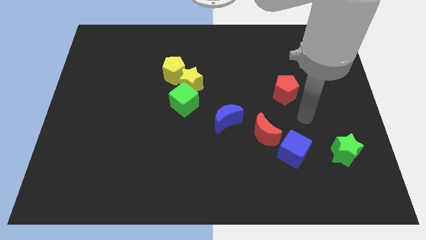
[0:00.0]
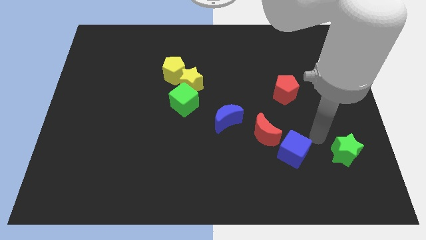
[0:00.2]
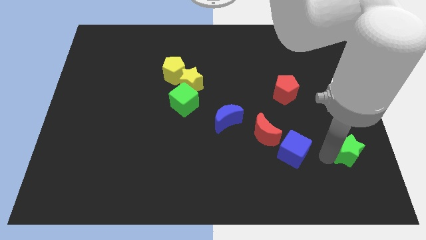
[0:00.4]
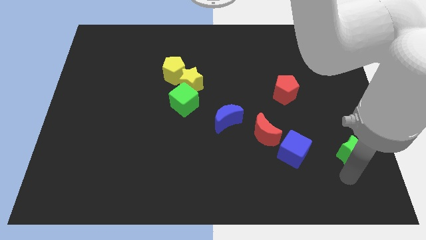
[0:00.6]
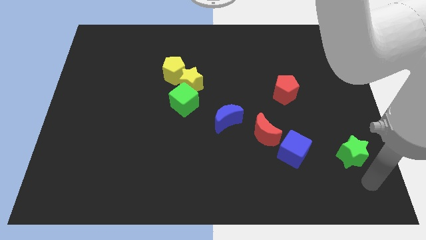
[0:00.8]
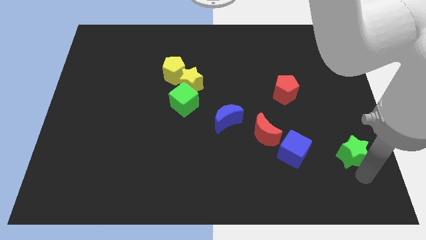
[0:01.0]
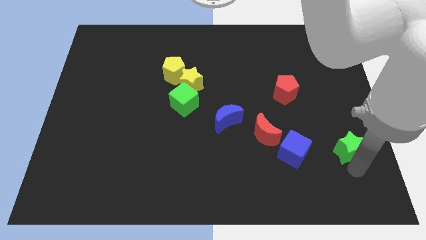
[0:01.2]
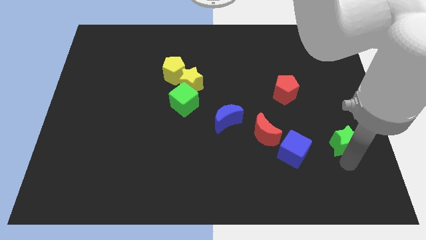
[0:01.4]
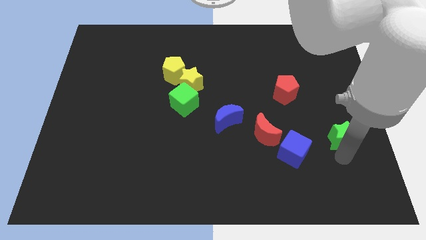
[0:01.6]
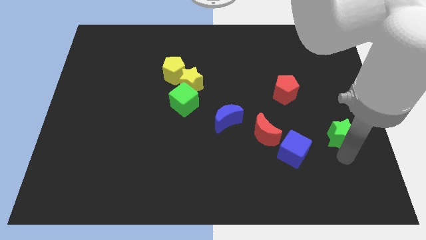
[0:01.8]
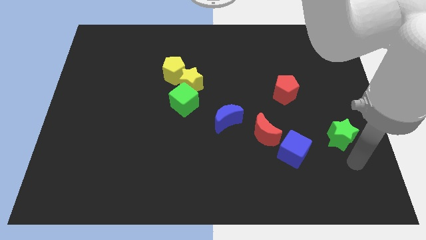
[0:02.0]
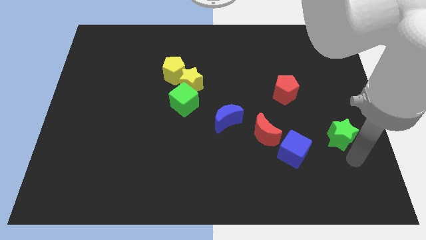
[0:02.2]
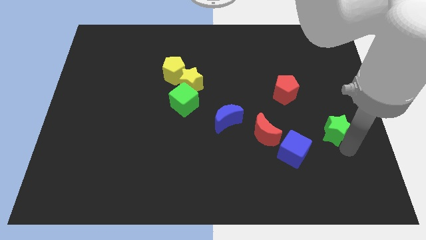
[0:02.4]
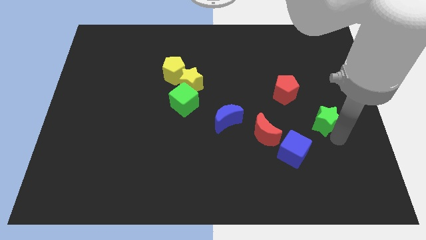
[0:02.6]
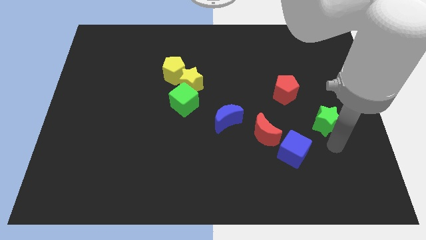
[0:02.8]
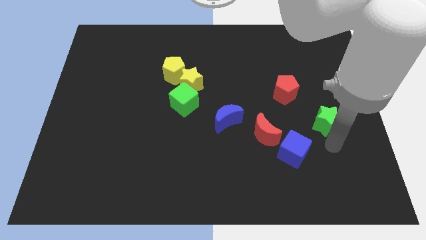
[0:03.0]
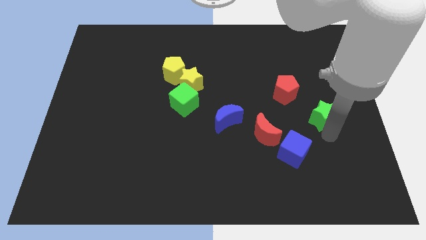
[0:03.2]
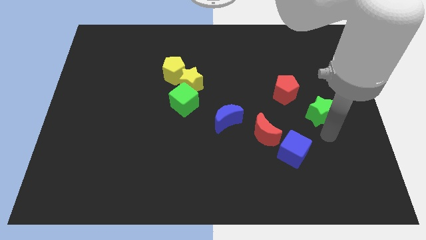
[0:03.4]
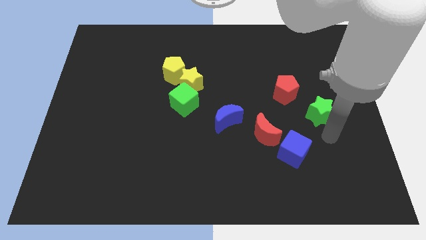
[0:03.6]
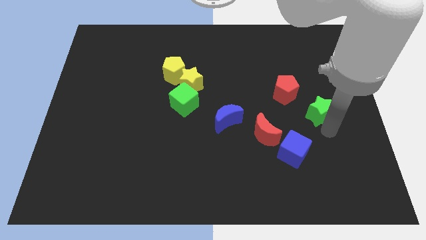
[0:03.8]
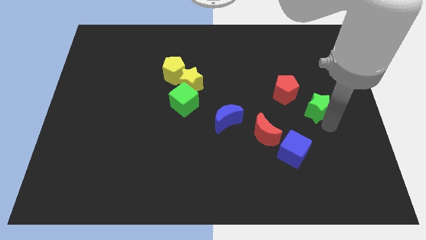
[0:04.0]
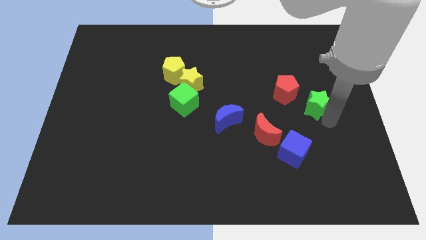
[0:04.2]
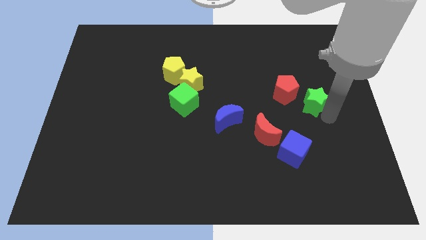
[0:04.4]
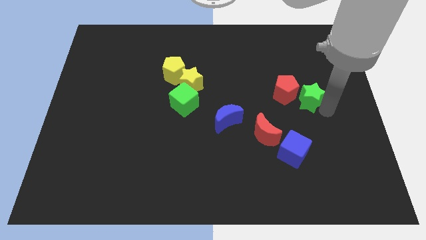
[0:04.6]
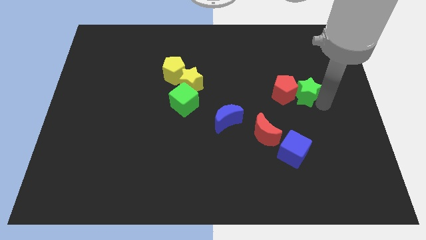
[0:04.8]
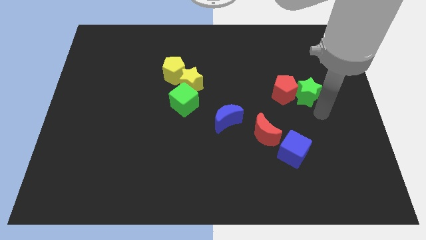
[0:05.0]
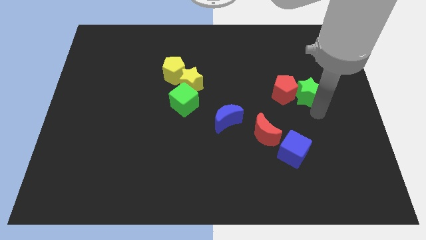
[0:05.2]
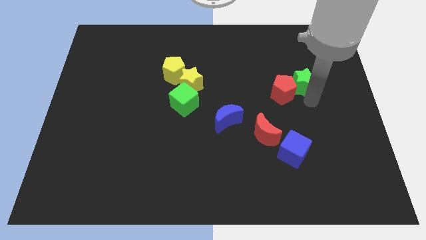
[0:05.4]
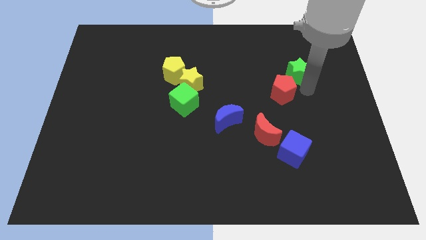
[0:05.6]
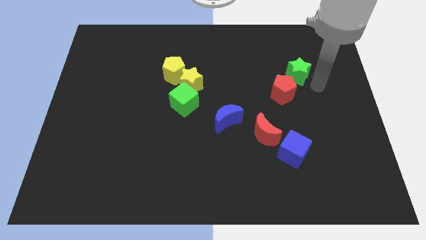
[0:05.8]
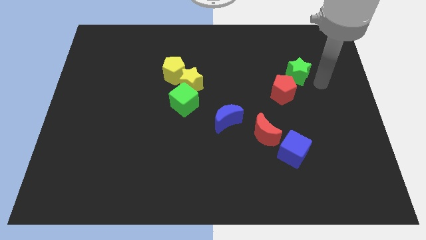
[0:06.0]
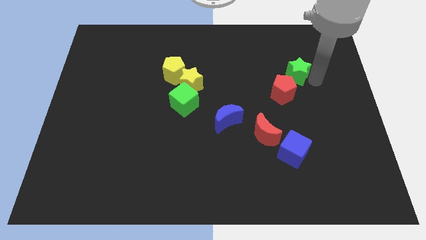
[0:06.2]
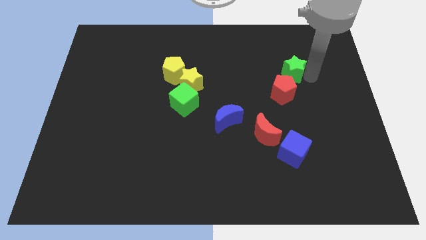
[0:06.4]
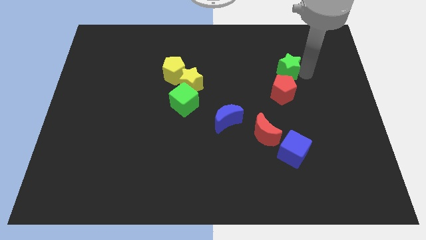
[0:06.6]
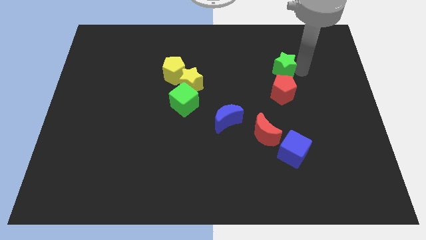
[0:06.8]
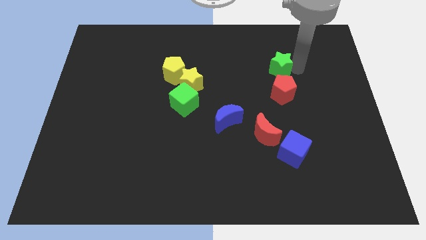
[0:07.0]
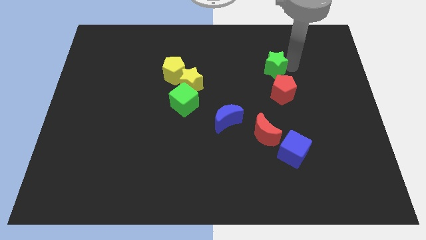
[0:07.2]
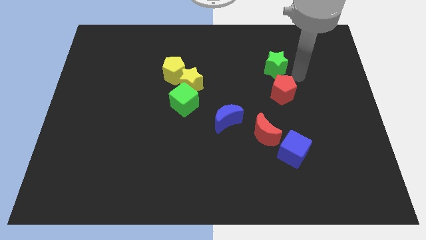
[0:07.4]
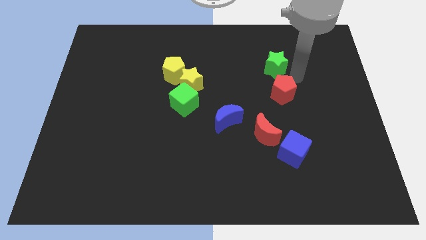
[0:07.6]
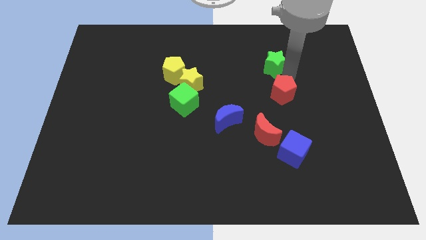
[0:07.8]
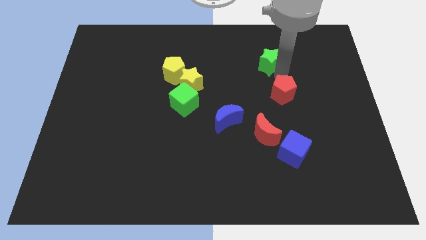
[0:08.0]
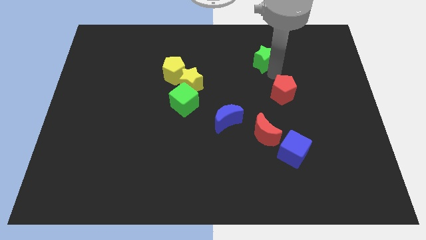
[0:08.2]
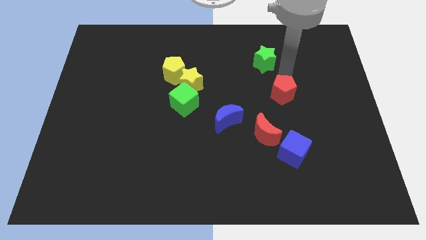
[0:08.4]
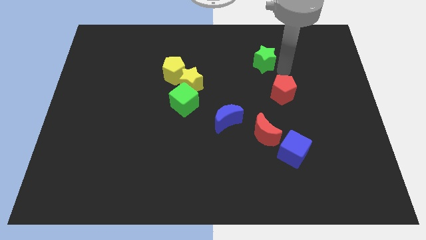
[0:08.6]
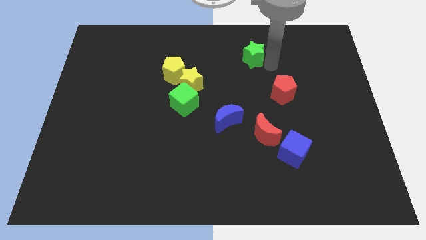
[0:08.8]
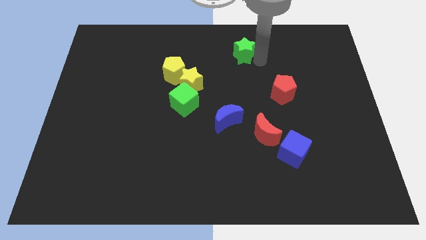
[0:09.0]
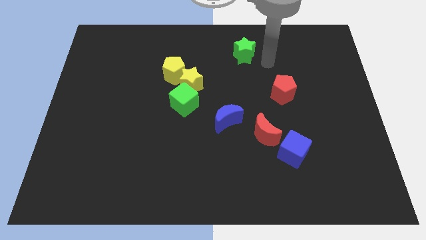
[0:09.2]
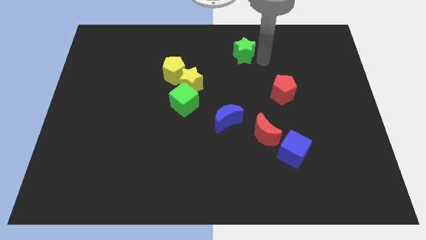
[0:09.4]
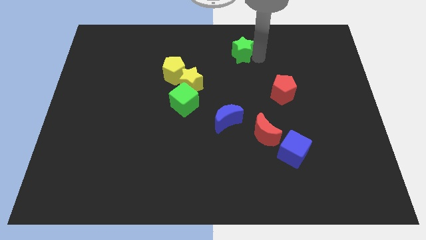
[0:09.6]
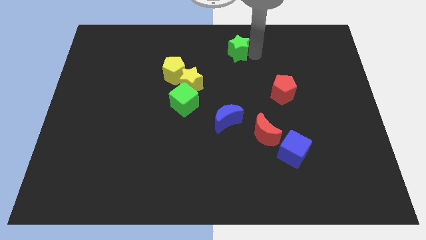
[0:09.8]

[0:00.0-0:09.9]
put the green star to the towards your base

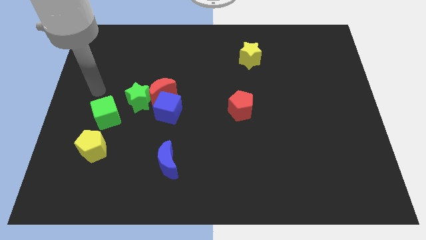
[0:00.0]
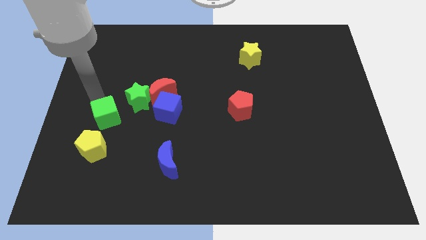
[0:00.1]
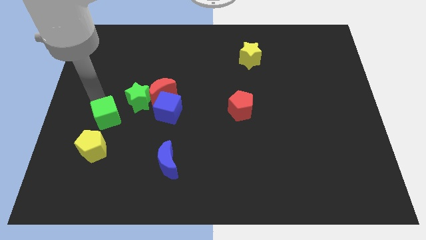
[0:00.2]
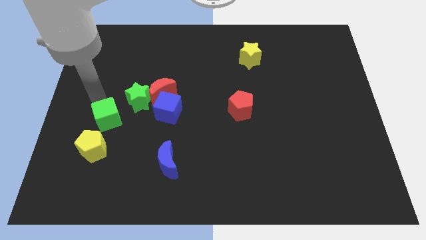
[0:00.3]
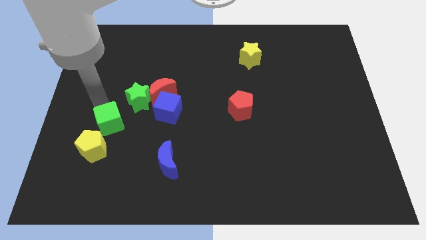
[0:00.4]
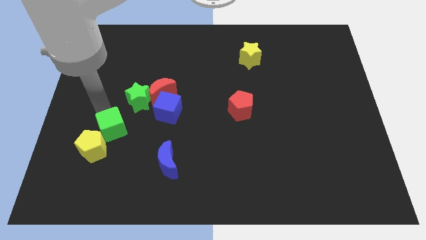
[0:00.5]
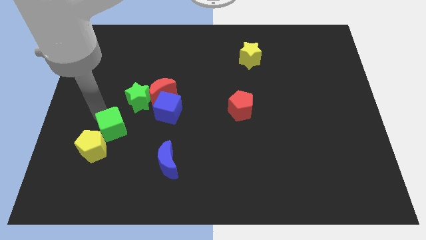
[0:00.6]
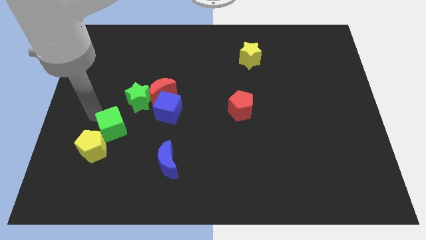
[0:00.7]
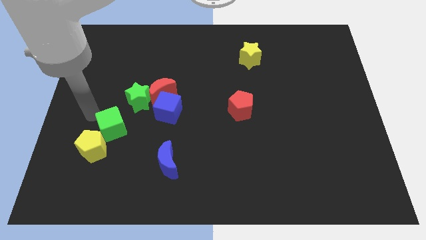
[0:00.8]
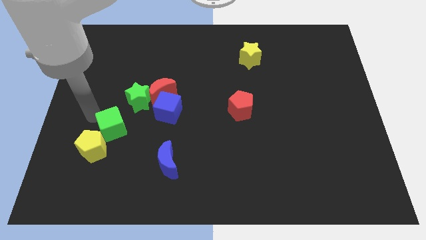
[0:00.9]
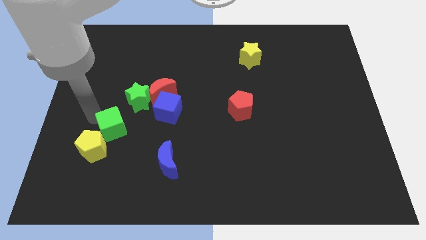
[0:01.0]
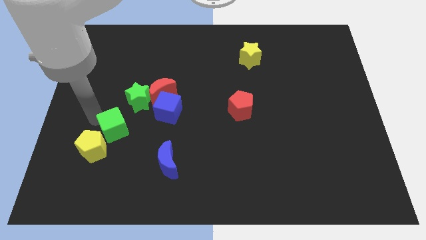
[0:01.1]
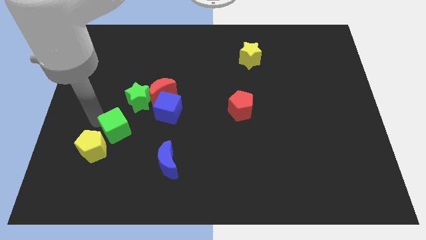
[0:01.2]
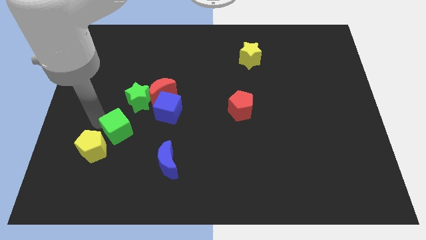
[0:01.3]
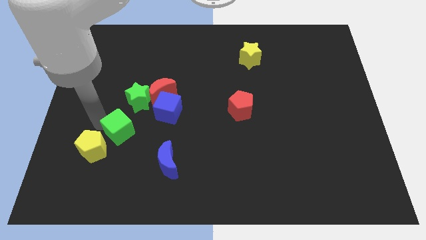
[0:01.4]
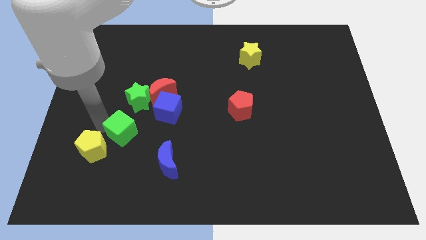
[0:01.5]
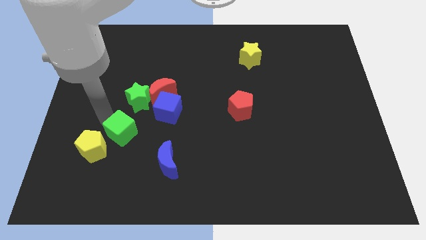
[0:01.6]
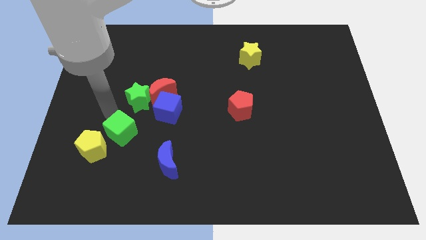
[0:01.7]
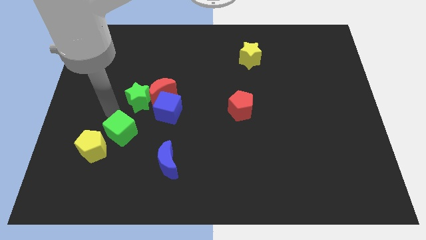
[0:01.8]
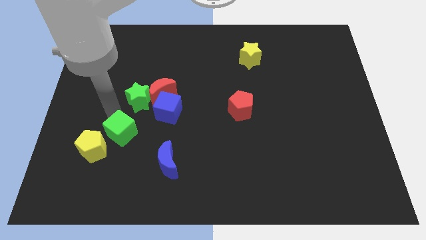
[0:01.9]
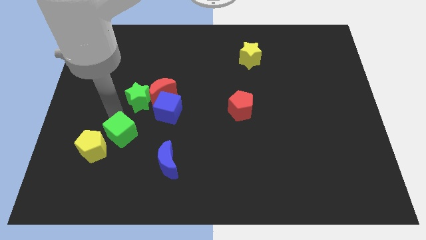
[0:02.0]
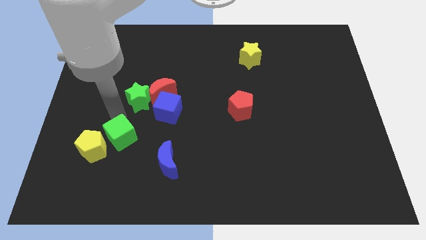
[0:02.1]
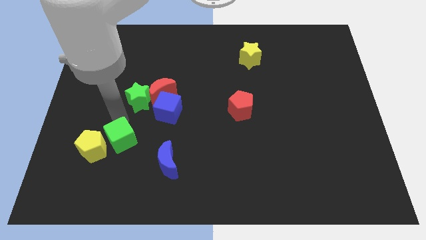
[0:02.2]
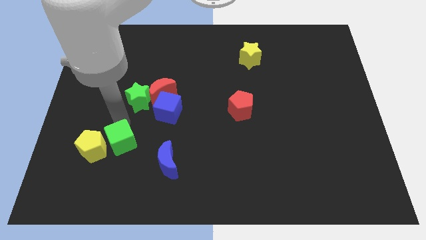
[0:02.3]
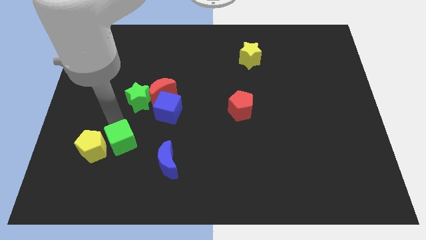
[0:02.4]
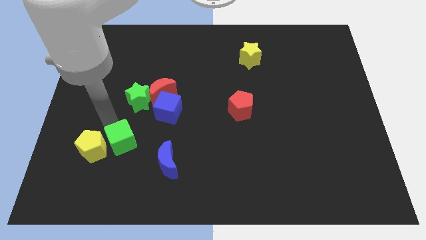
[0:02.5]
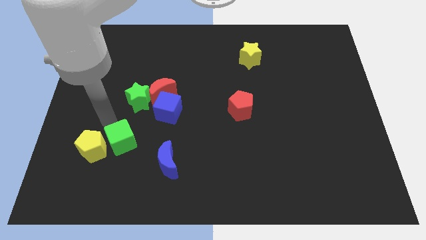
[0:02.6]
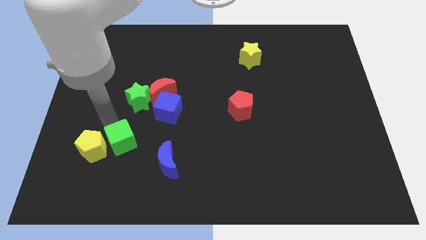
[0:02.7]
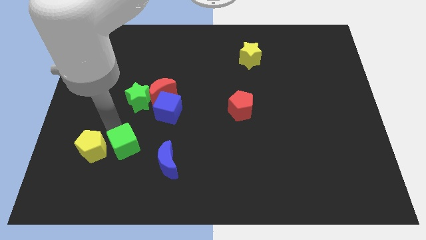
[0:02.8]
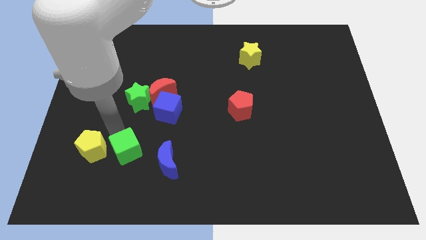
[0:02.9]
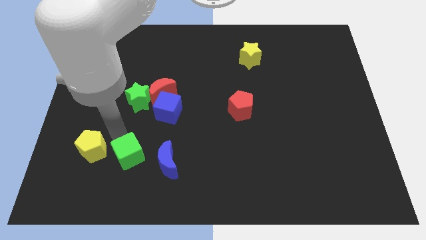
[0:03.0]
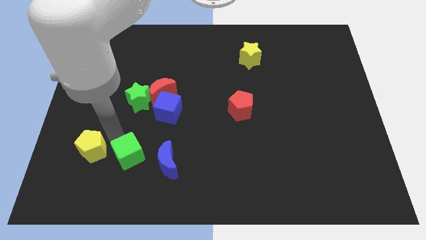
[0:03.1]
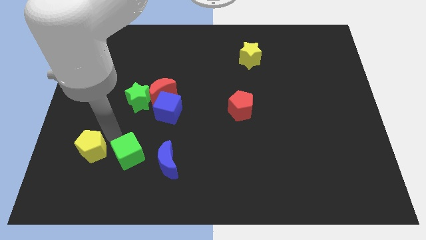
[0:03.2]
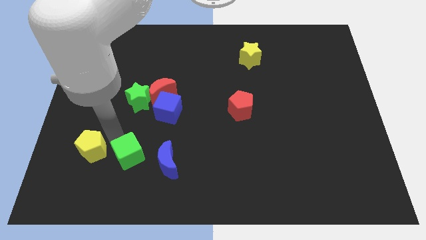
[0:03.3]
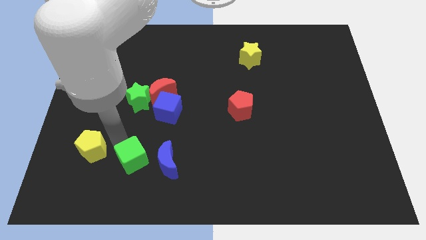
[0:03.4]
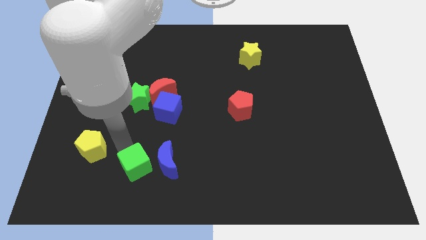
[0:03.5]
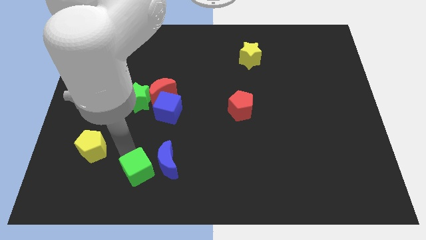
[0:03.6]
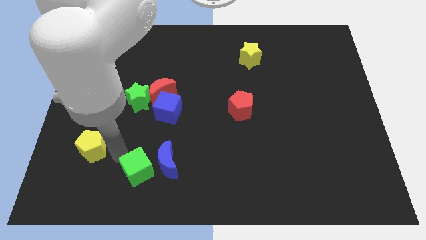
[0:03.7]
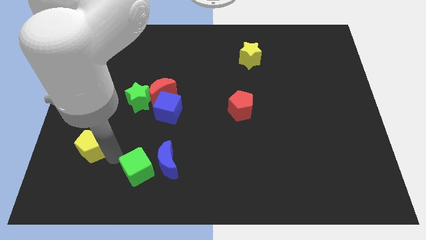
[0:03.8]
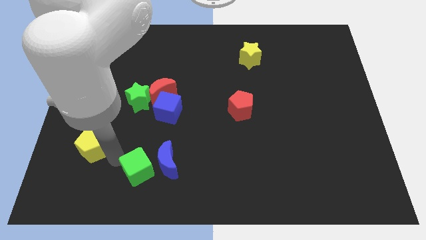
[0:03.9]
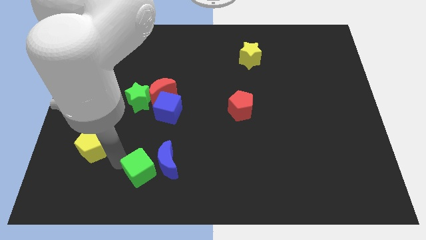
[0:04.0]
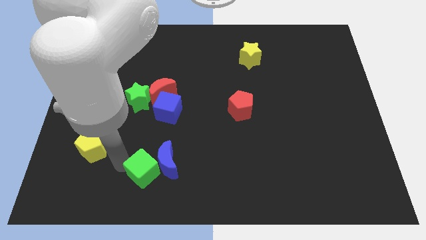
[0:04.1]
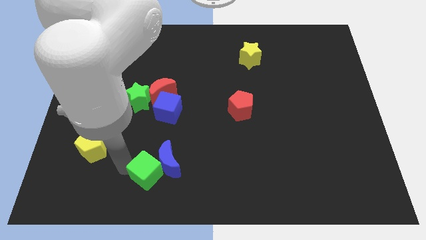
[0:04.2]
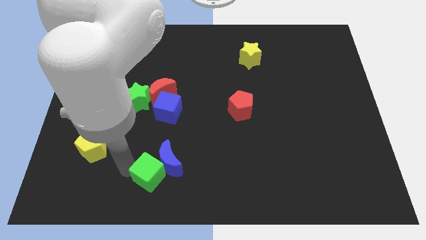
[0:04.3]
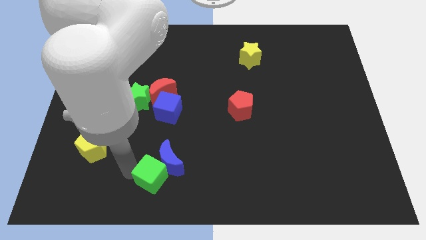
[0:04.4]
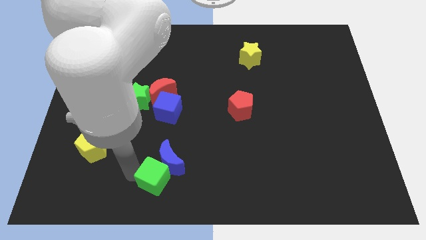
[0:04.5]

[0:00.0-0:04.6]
slide the green cube to the bottom side
